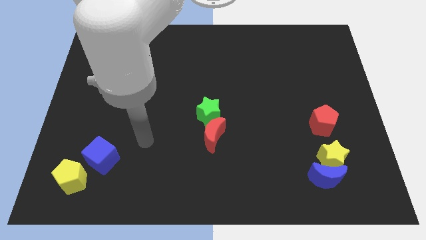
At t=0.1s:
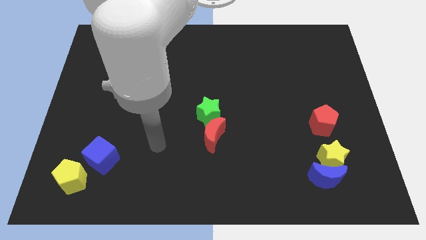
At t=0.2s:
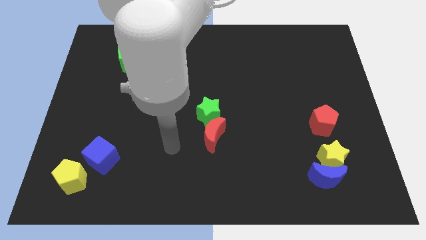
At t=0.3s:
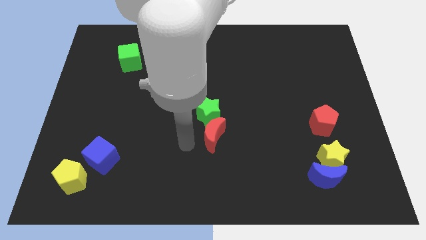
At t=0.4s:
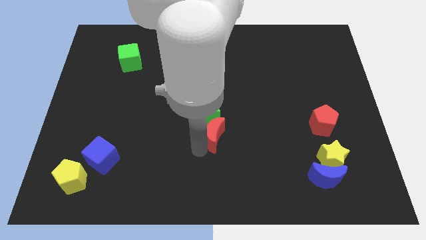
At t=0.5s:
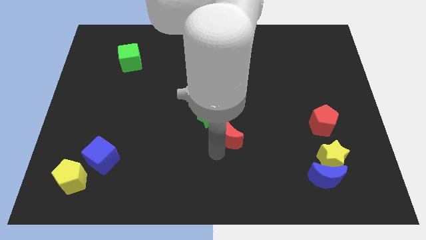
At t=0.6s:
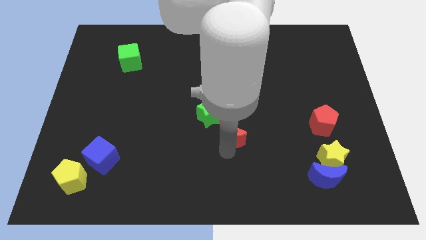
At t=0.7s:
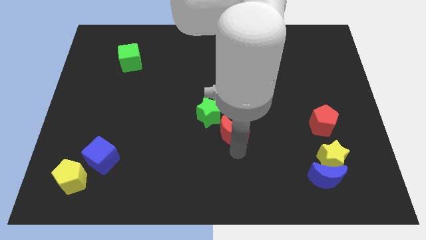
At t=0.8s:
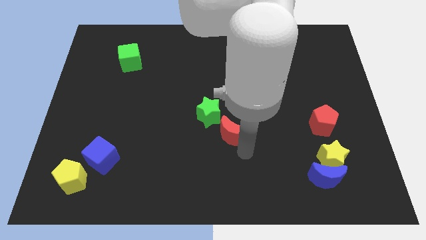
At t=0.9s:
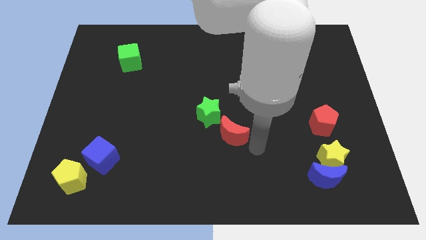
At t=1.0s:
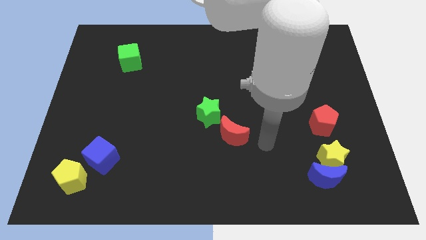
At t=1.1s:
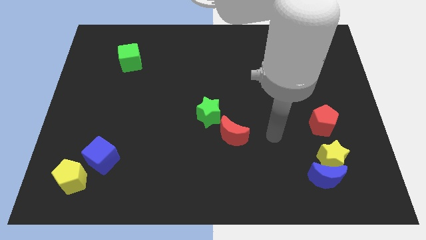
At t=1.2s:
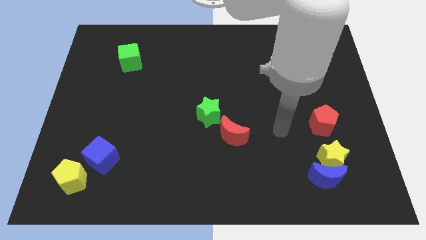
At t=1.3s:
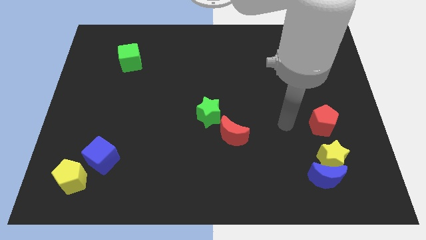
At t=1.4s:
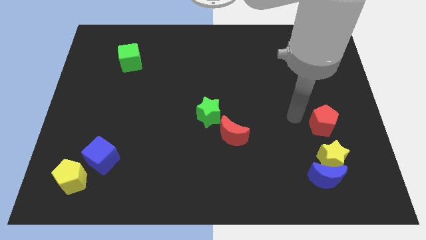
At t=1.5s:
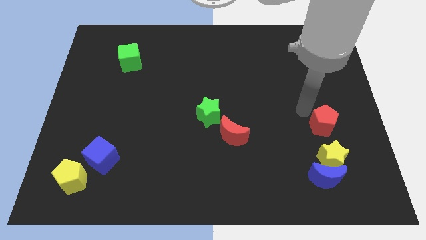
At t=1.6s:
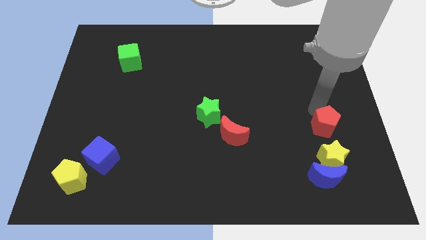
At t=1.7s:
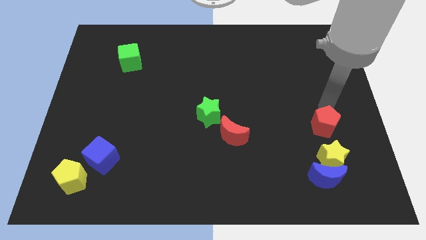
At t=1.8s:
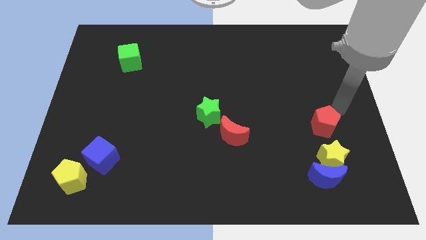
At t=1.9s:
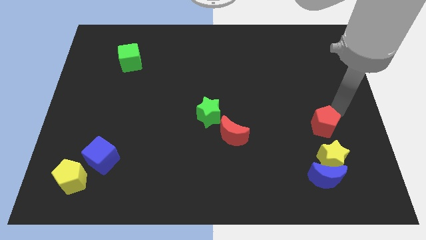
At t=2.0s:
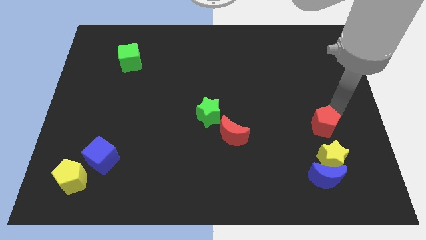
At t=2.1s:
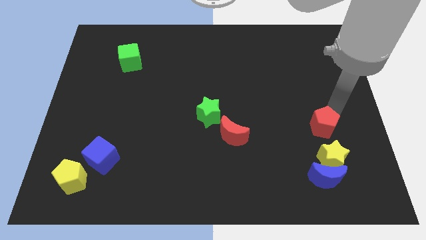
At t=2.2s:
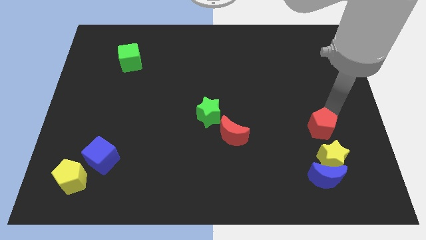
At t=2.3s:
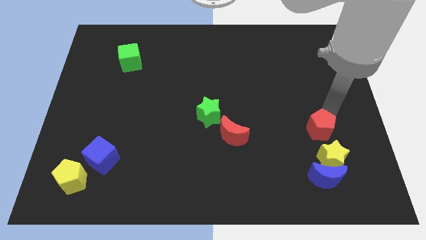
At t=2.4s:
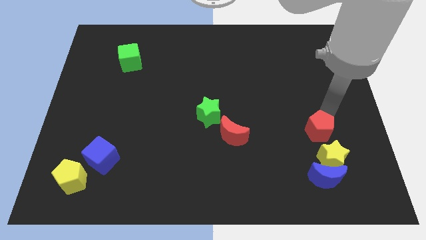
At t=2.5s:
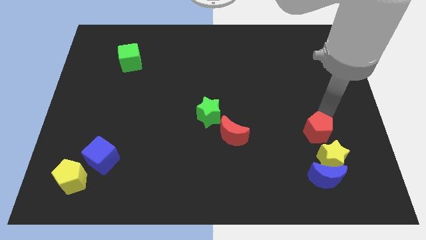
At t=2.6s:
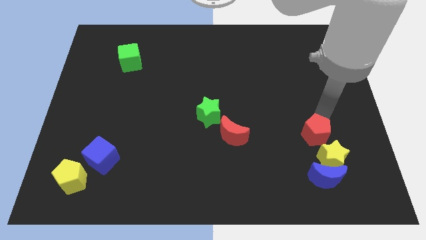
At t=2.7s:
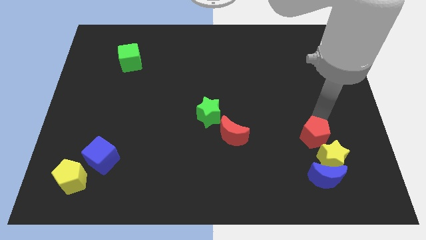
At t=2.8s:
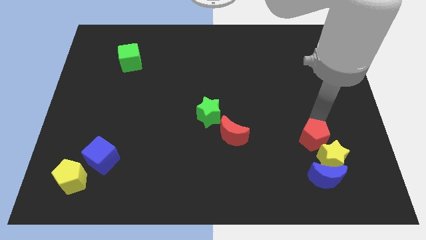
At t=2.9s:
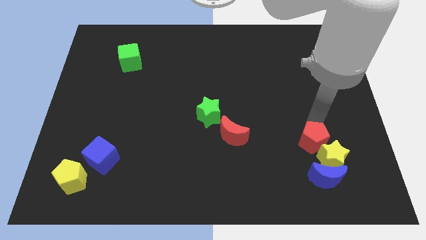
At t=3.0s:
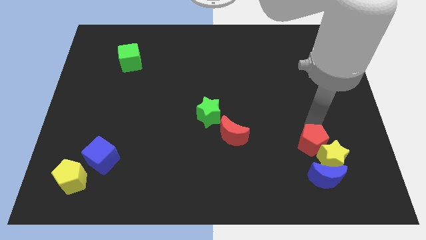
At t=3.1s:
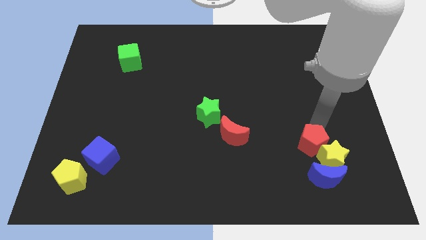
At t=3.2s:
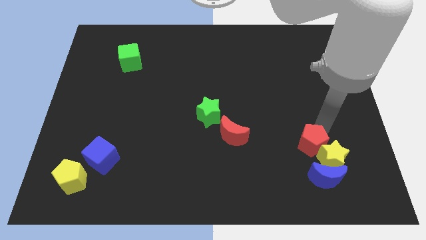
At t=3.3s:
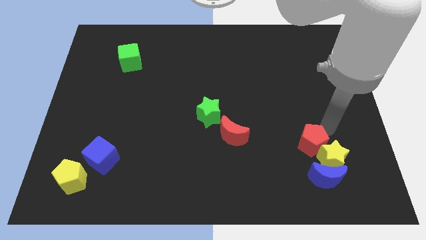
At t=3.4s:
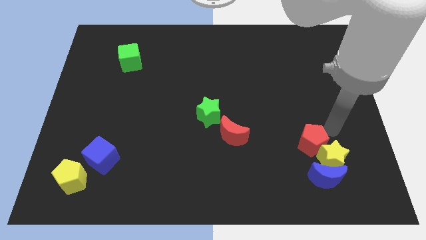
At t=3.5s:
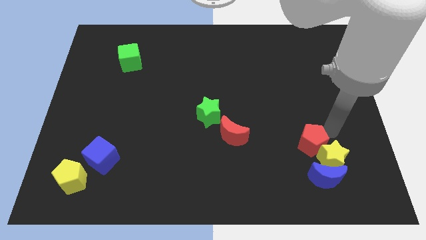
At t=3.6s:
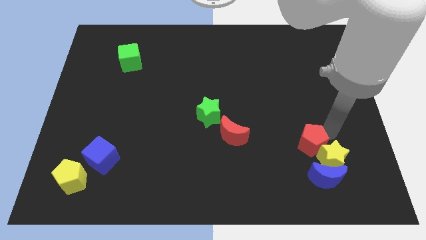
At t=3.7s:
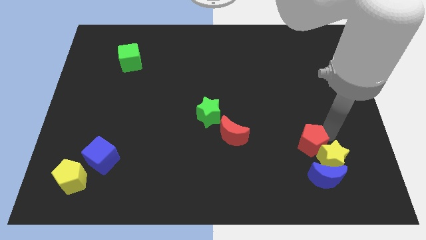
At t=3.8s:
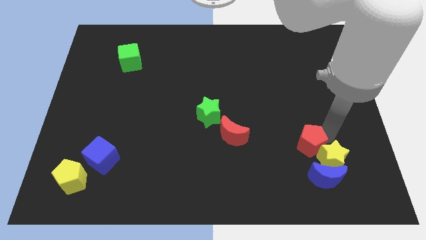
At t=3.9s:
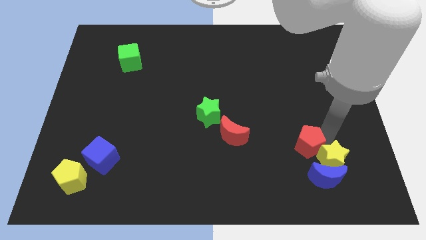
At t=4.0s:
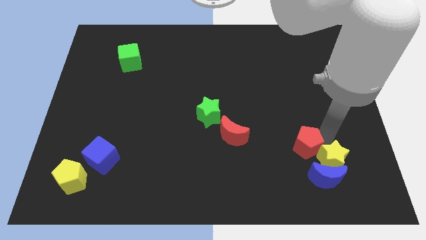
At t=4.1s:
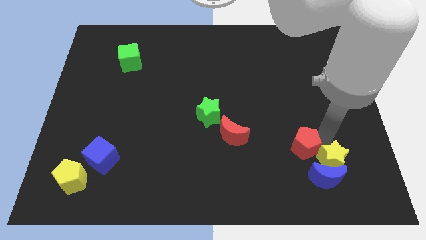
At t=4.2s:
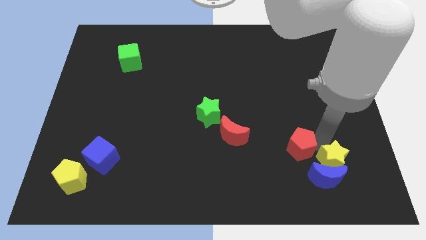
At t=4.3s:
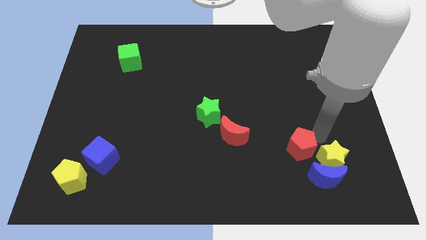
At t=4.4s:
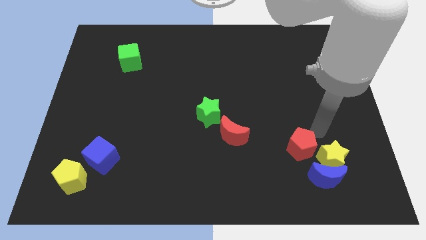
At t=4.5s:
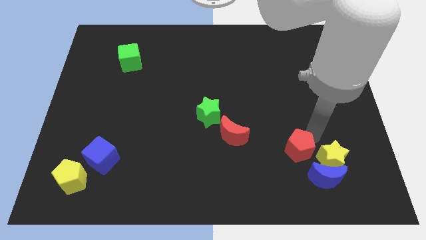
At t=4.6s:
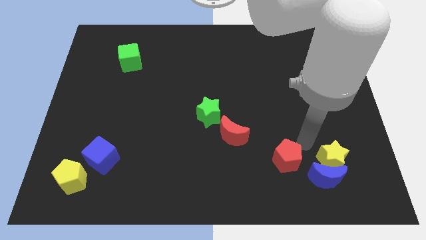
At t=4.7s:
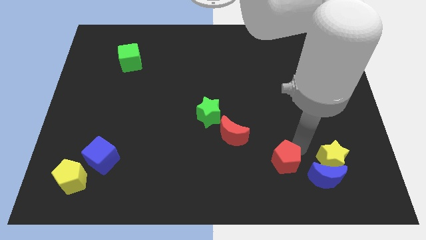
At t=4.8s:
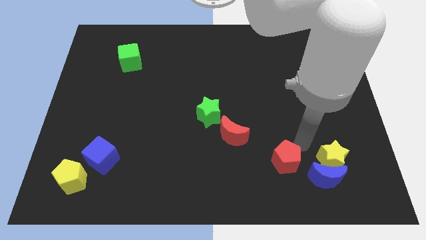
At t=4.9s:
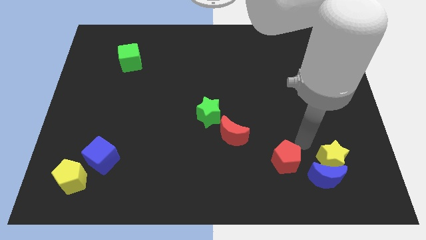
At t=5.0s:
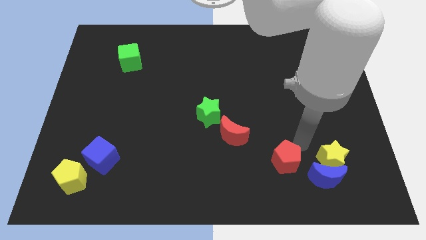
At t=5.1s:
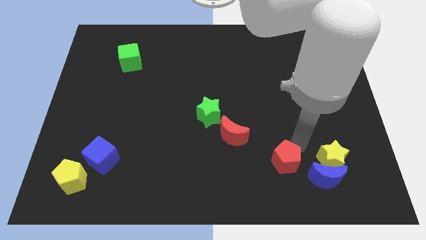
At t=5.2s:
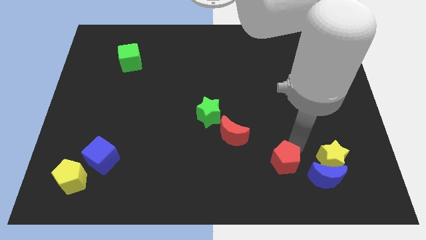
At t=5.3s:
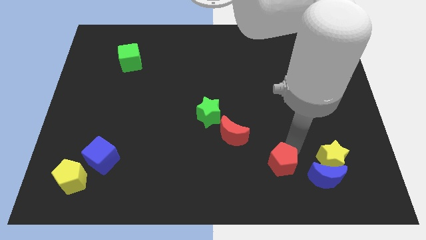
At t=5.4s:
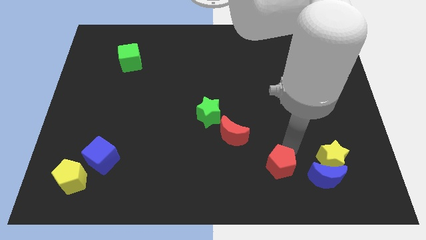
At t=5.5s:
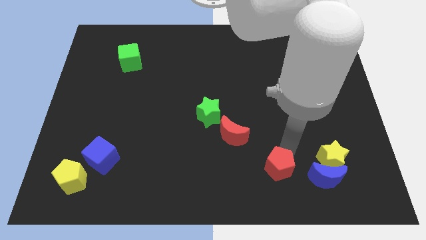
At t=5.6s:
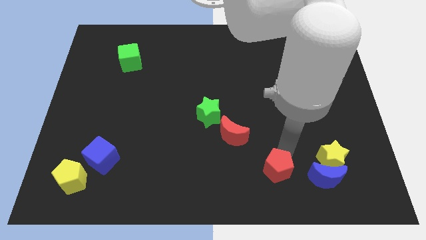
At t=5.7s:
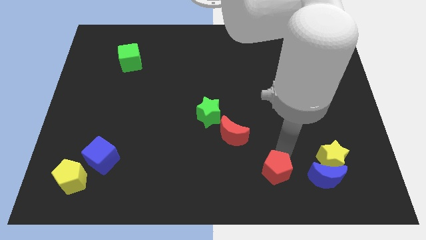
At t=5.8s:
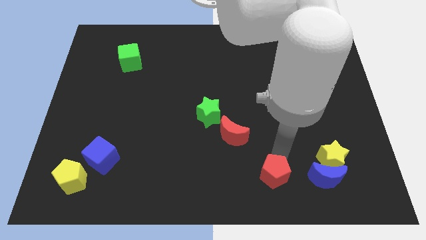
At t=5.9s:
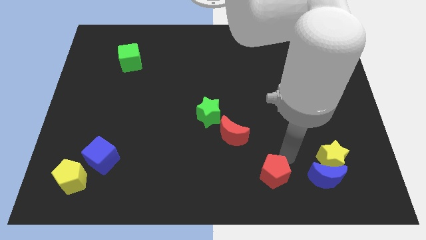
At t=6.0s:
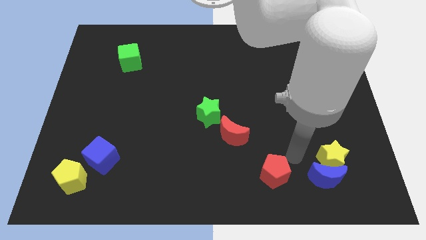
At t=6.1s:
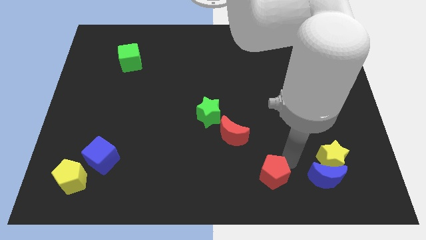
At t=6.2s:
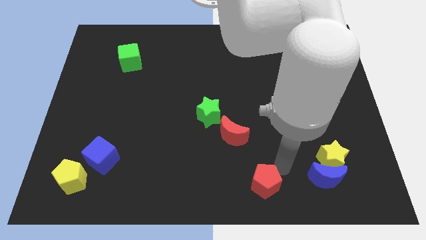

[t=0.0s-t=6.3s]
push the red pentagon to the bottom side
